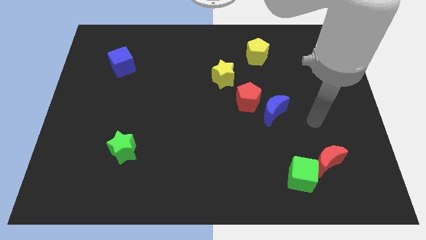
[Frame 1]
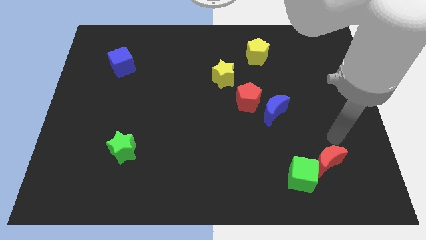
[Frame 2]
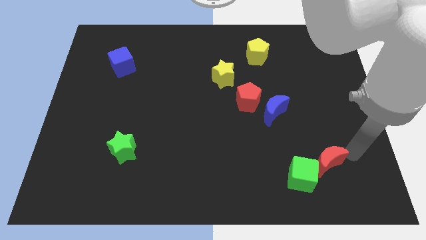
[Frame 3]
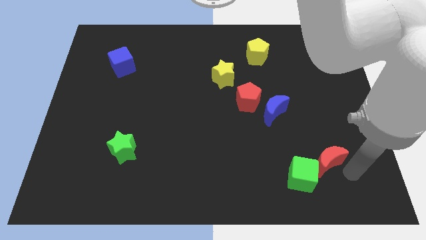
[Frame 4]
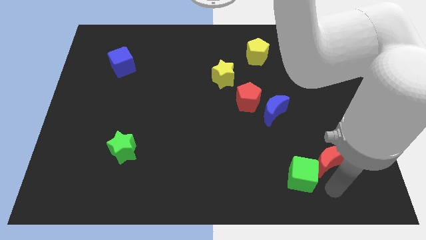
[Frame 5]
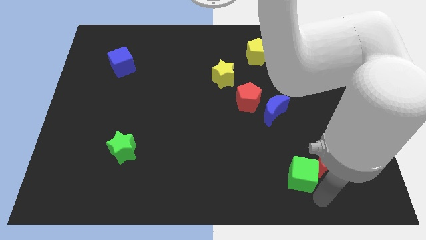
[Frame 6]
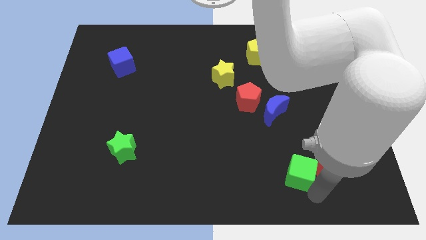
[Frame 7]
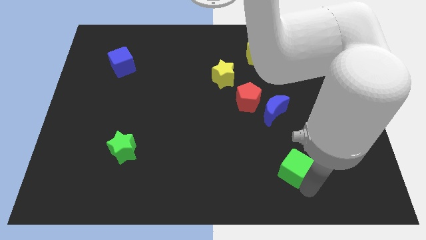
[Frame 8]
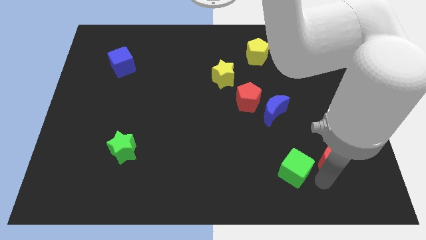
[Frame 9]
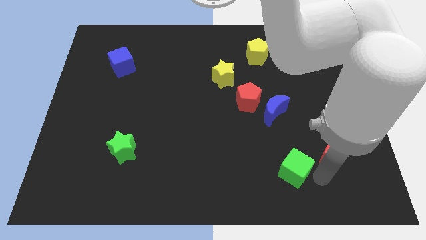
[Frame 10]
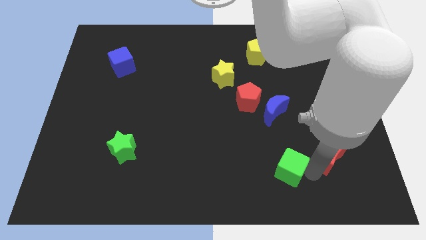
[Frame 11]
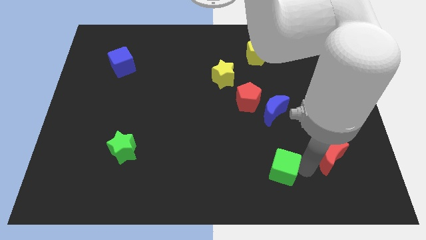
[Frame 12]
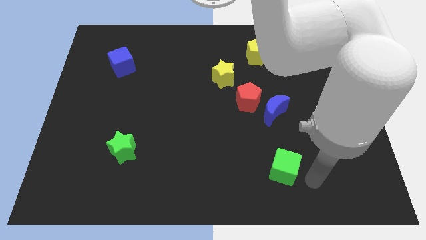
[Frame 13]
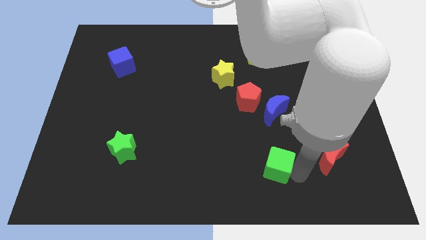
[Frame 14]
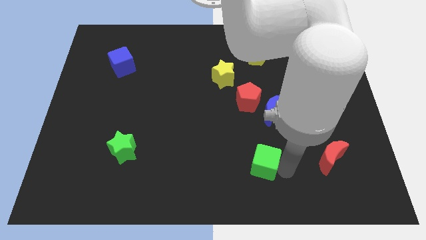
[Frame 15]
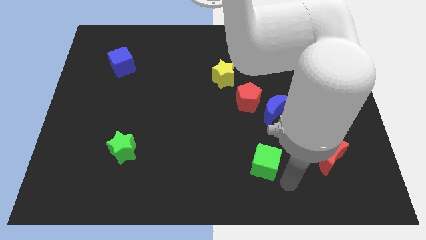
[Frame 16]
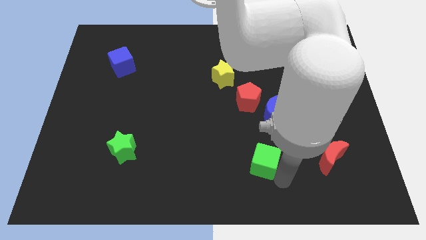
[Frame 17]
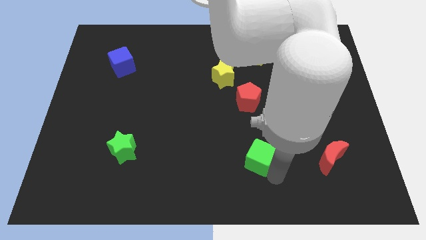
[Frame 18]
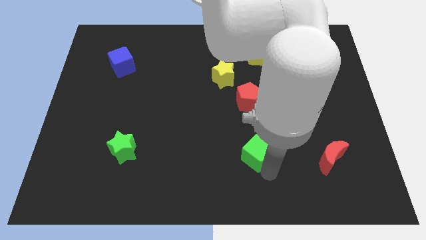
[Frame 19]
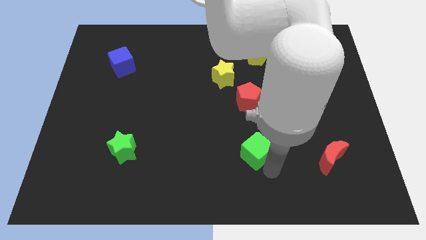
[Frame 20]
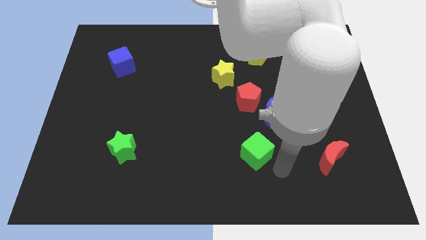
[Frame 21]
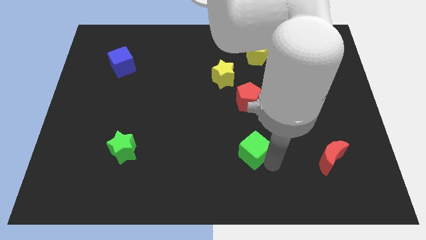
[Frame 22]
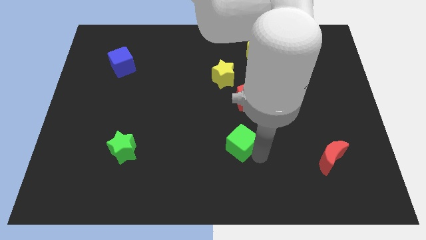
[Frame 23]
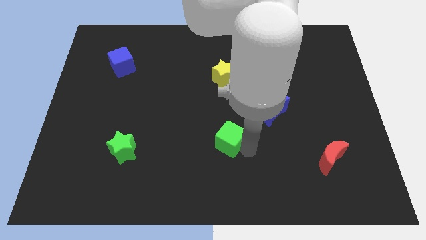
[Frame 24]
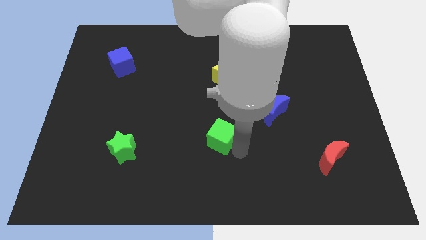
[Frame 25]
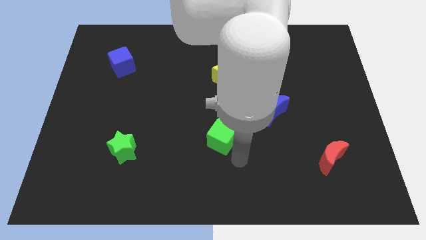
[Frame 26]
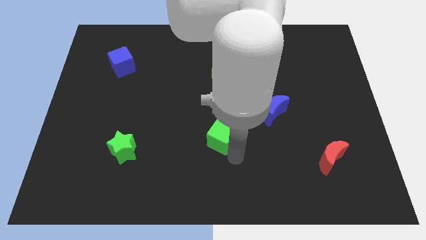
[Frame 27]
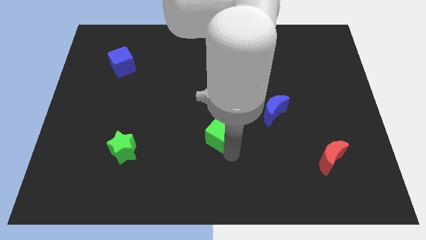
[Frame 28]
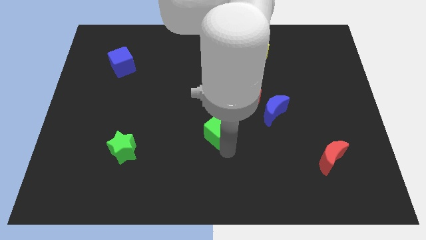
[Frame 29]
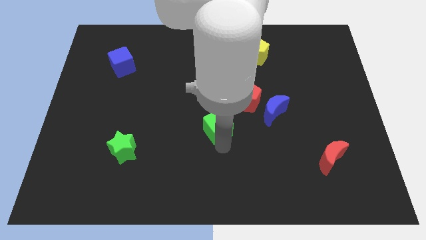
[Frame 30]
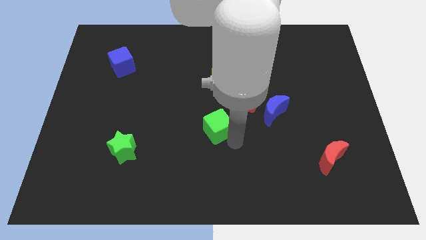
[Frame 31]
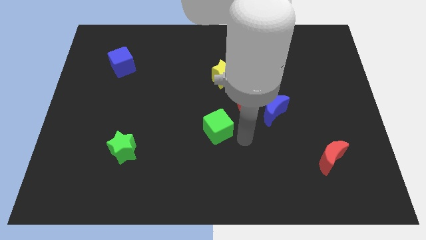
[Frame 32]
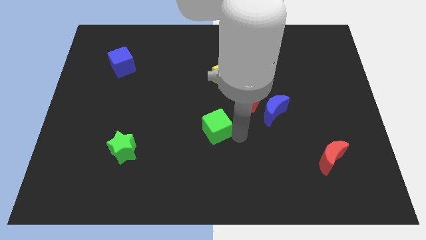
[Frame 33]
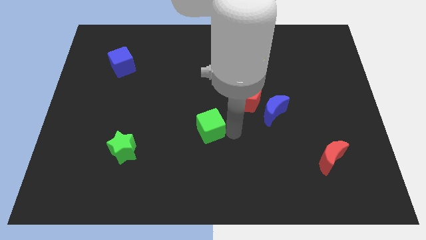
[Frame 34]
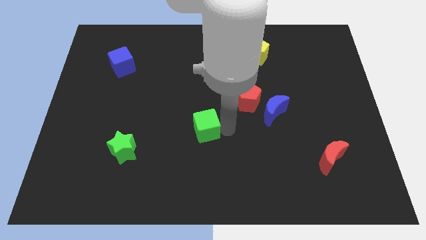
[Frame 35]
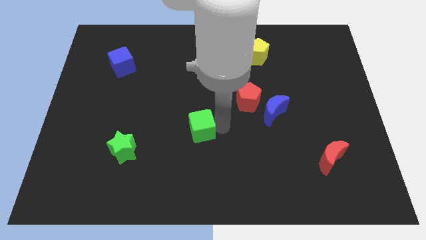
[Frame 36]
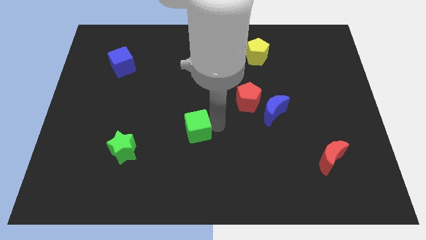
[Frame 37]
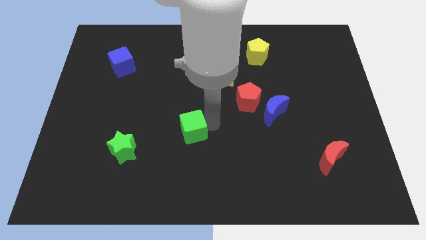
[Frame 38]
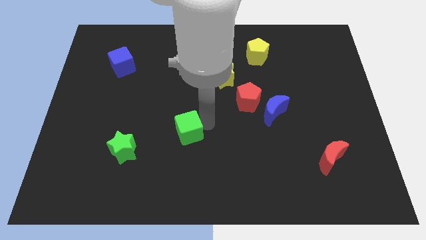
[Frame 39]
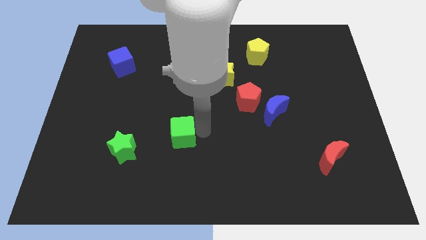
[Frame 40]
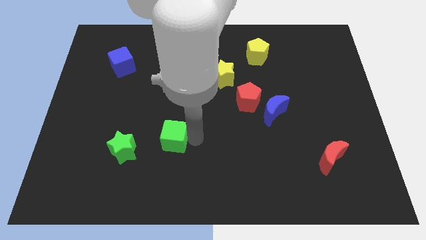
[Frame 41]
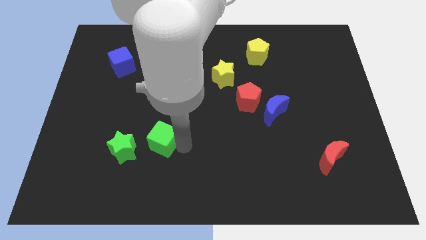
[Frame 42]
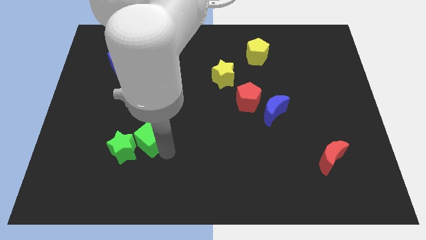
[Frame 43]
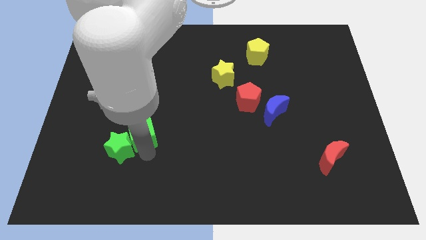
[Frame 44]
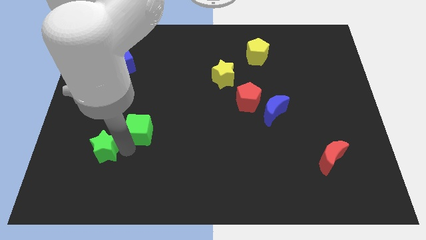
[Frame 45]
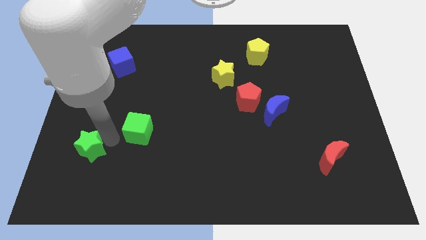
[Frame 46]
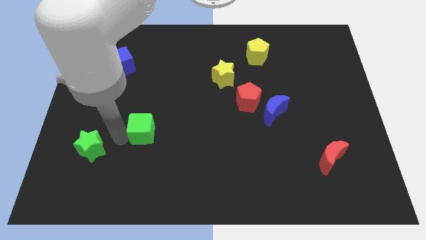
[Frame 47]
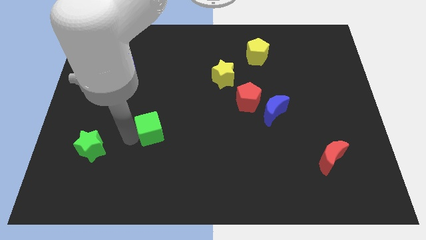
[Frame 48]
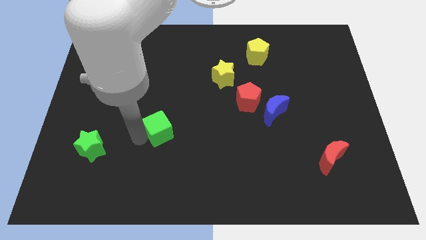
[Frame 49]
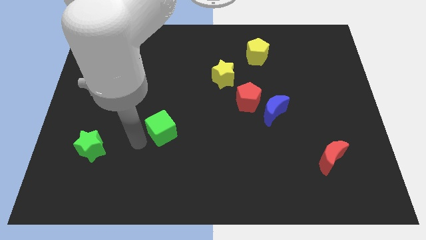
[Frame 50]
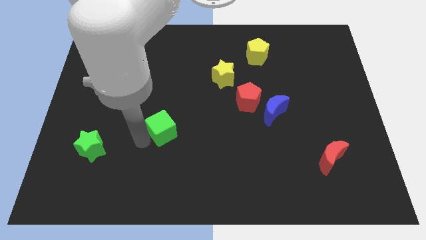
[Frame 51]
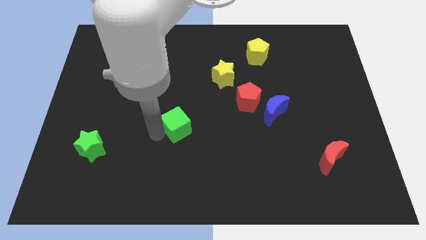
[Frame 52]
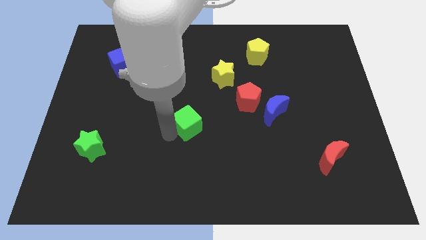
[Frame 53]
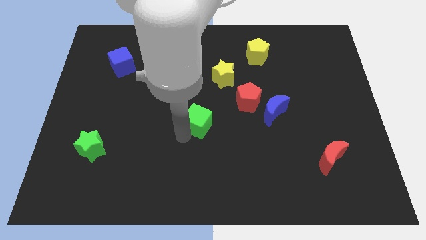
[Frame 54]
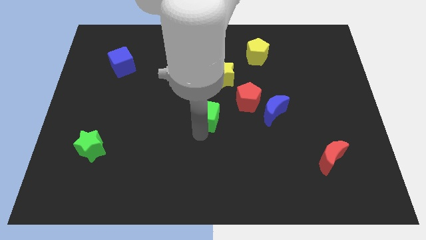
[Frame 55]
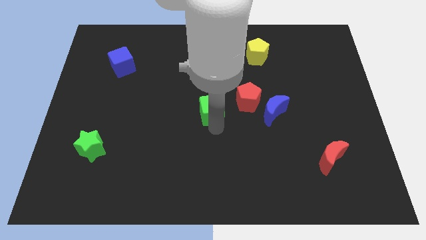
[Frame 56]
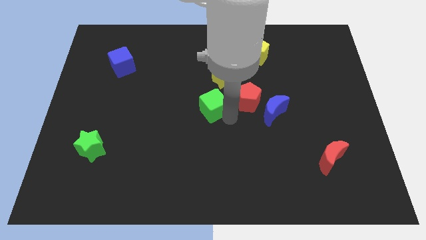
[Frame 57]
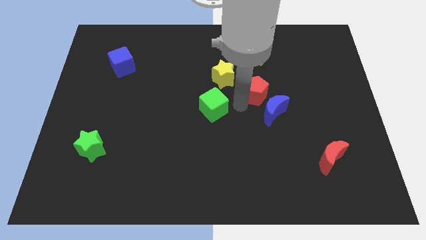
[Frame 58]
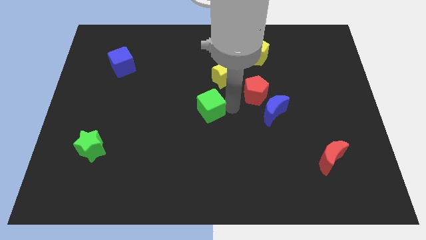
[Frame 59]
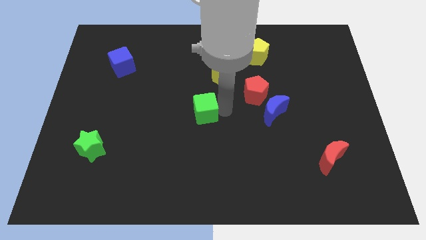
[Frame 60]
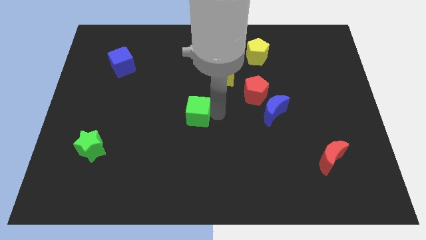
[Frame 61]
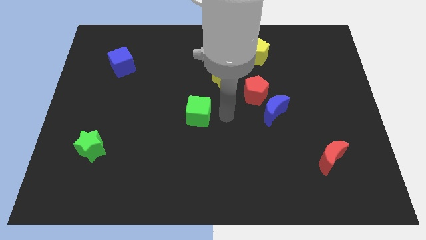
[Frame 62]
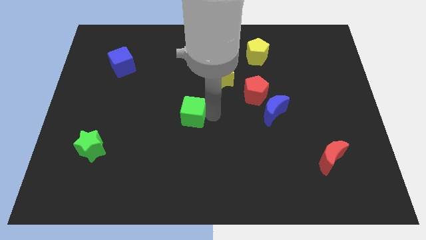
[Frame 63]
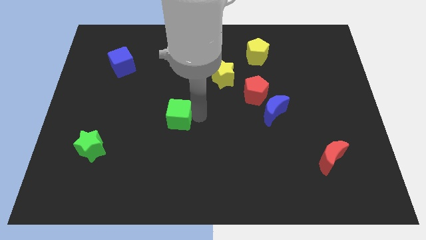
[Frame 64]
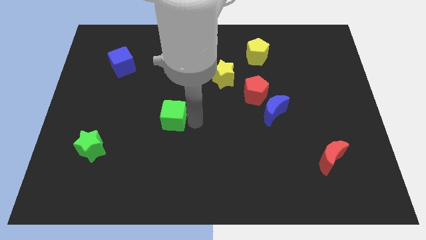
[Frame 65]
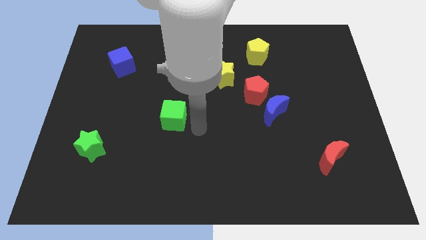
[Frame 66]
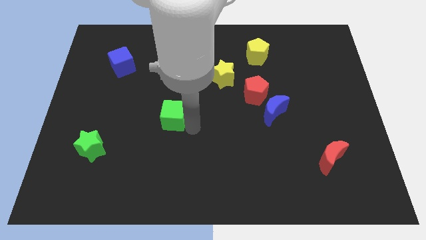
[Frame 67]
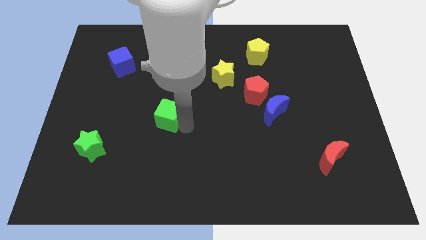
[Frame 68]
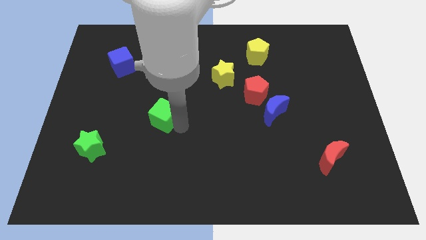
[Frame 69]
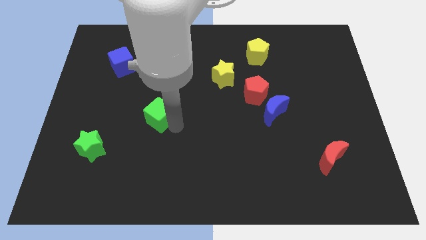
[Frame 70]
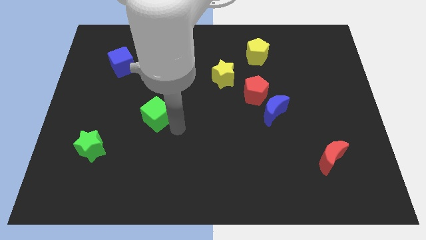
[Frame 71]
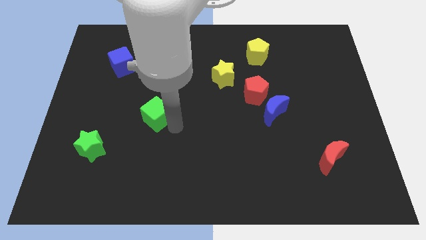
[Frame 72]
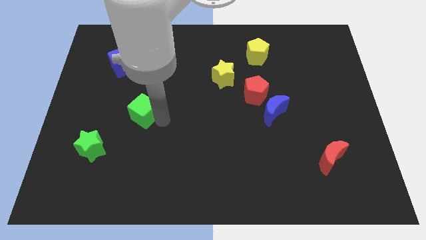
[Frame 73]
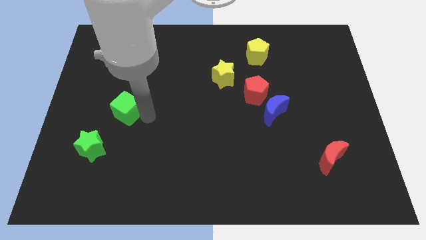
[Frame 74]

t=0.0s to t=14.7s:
slide the green cube to the bottom of the blue cube

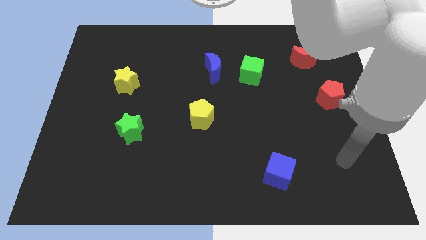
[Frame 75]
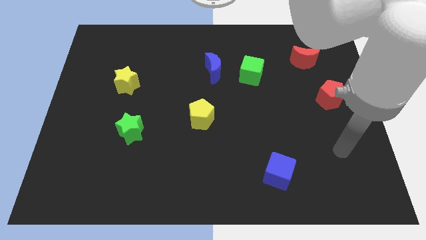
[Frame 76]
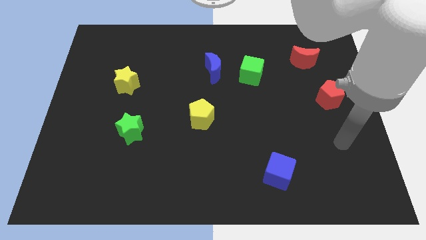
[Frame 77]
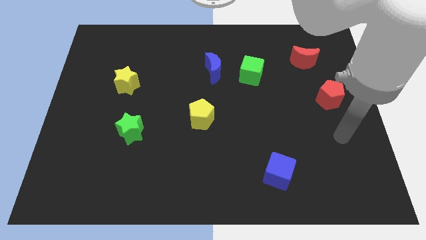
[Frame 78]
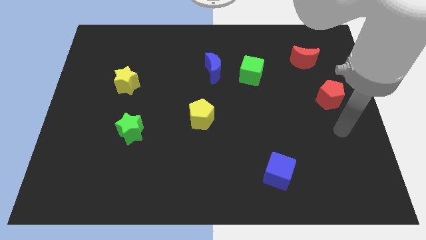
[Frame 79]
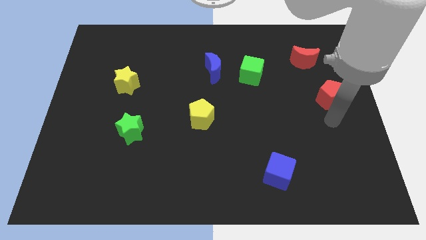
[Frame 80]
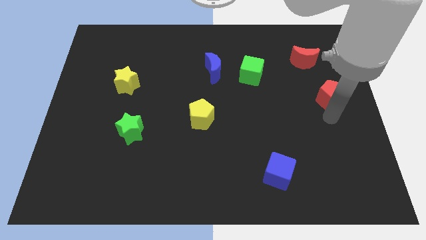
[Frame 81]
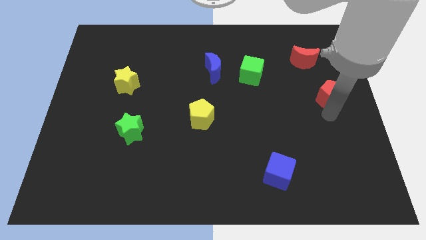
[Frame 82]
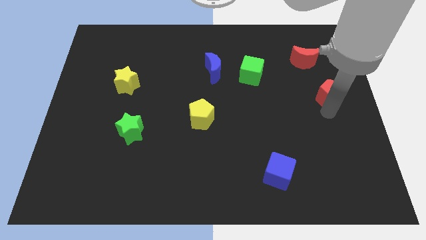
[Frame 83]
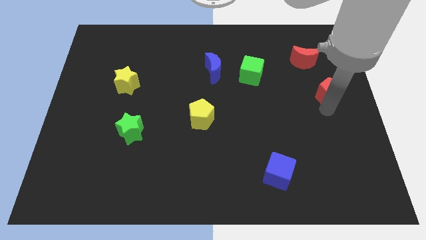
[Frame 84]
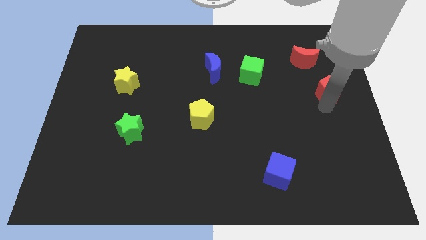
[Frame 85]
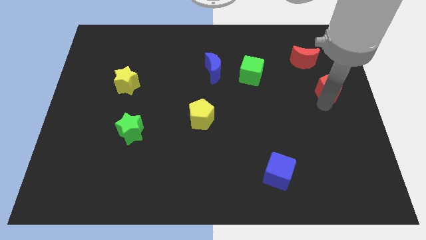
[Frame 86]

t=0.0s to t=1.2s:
move the red pentagon to the bottom right side of the red moon
